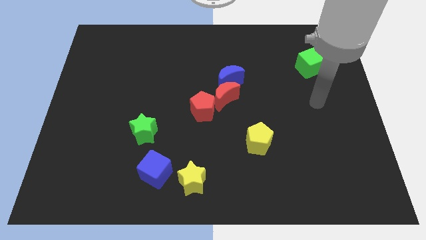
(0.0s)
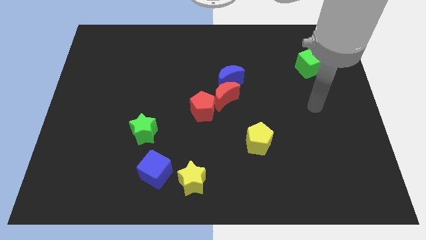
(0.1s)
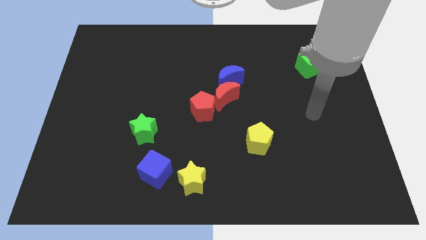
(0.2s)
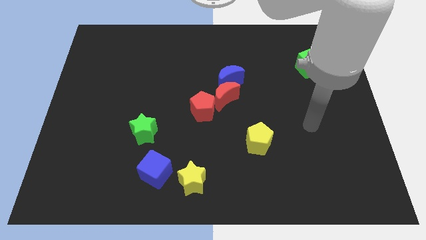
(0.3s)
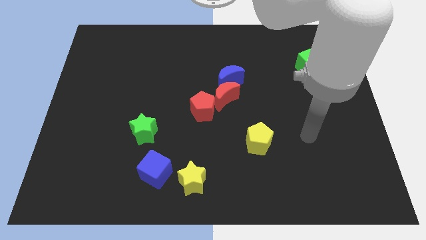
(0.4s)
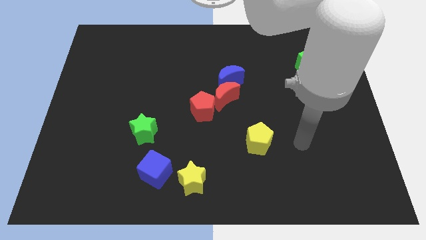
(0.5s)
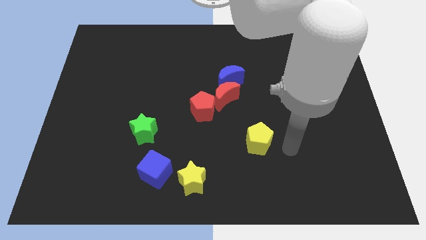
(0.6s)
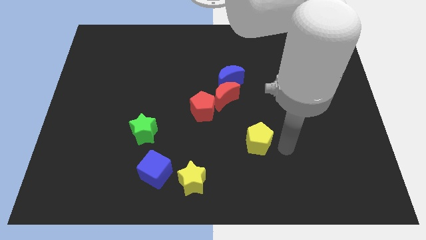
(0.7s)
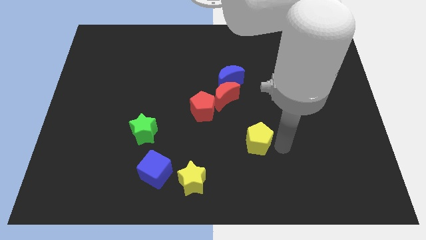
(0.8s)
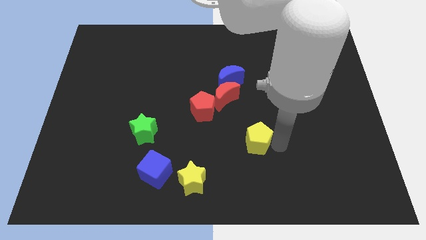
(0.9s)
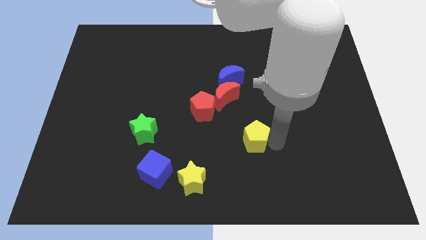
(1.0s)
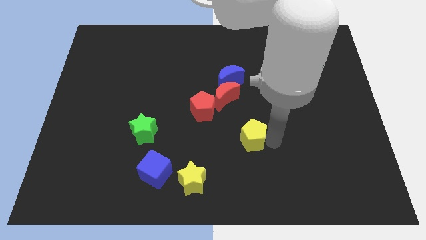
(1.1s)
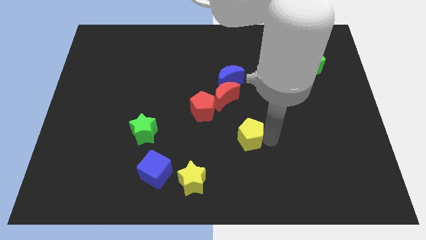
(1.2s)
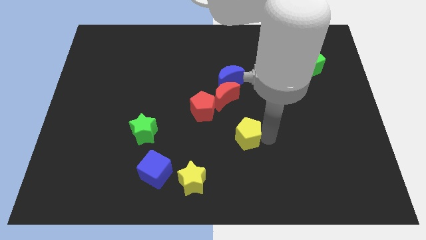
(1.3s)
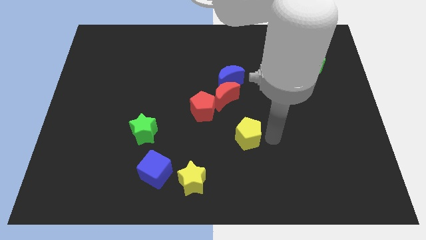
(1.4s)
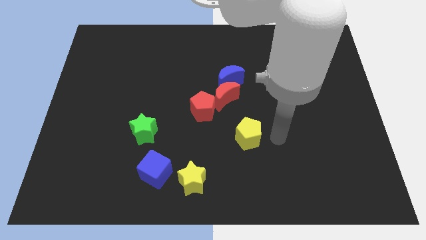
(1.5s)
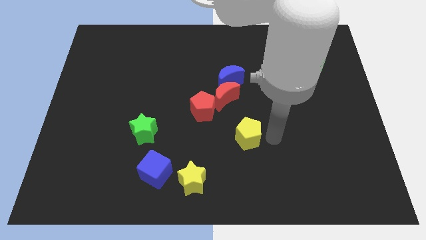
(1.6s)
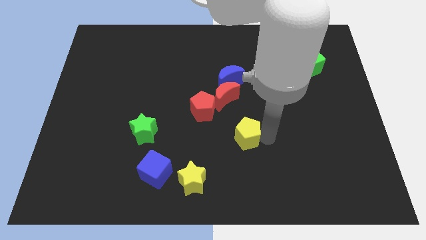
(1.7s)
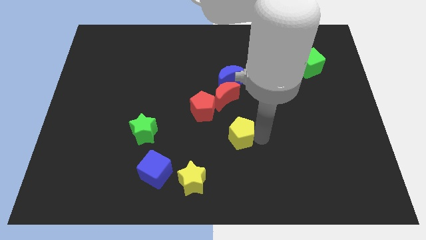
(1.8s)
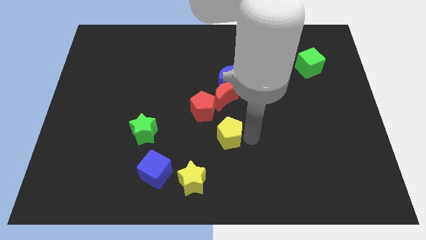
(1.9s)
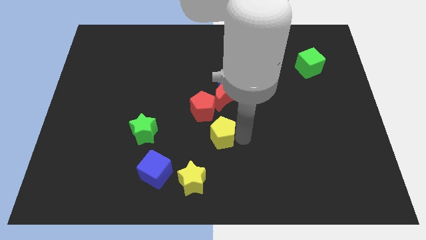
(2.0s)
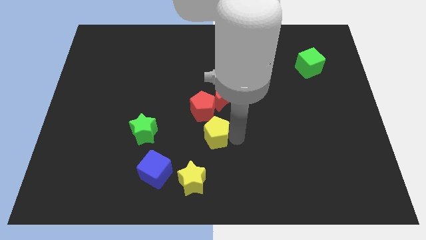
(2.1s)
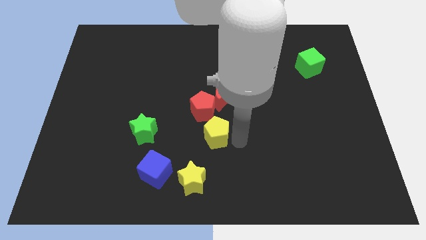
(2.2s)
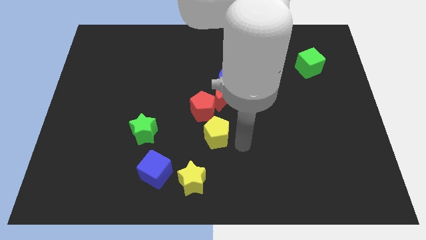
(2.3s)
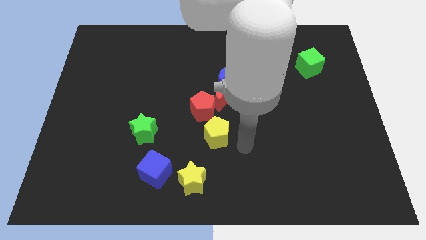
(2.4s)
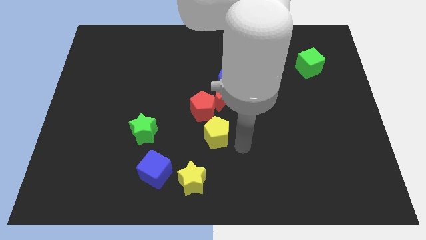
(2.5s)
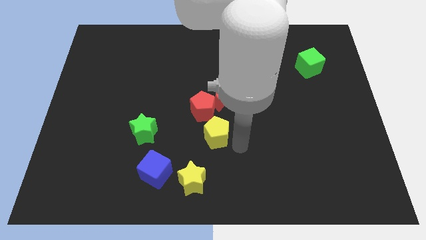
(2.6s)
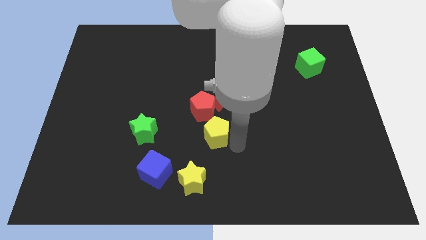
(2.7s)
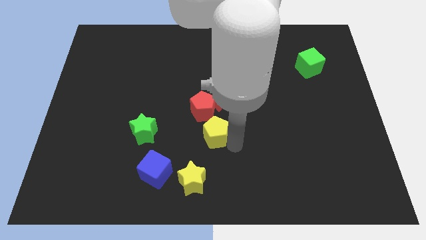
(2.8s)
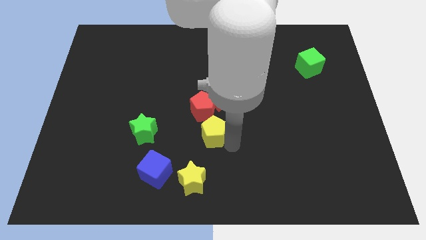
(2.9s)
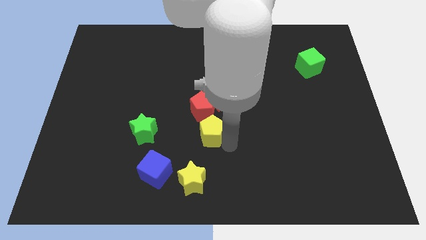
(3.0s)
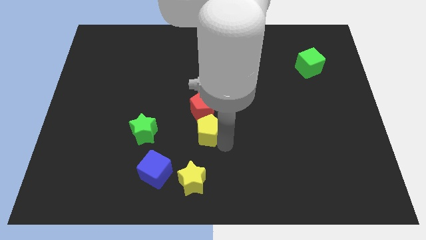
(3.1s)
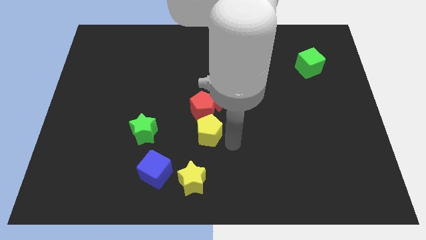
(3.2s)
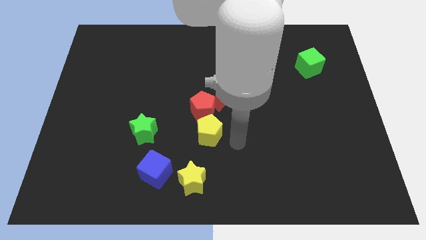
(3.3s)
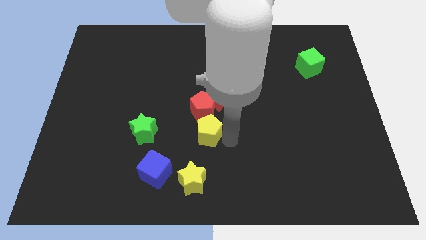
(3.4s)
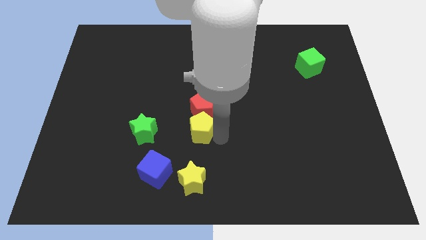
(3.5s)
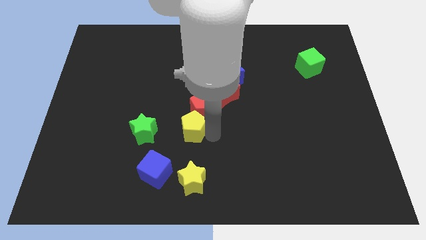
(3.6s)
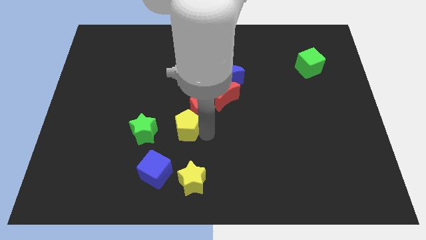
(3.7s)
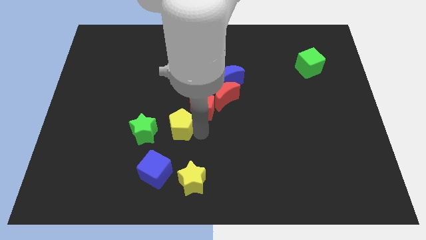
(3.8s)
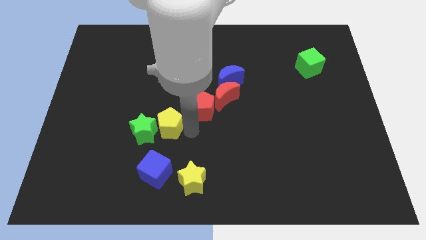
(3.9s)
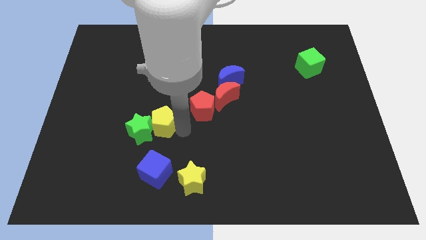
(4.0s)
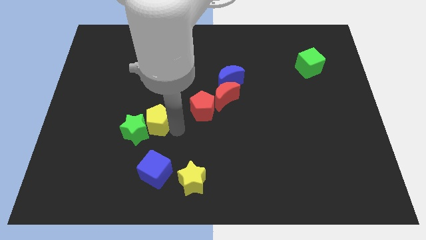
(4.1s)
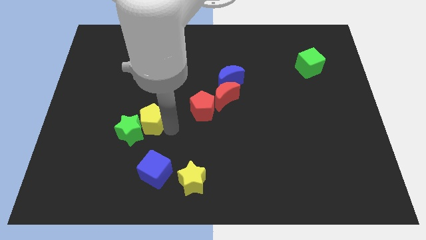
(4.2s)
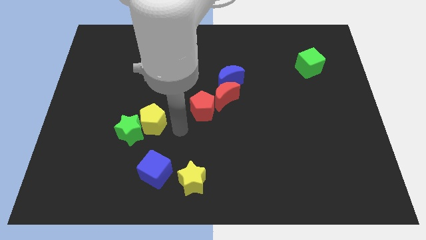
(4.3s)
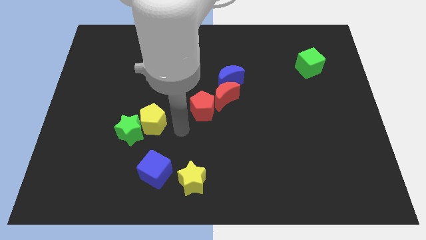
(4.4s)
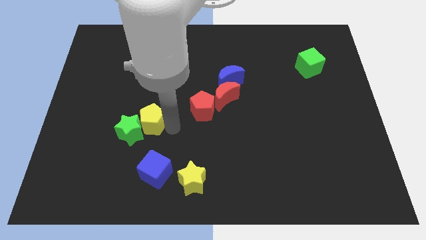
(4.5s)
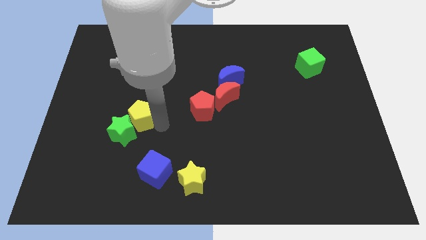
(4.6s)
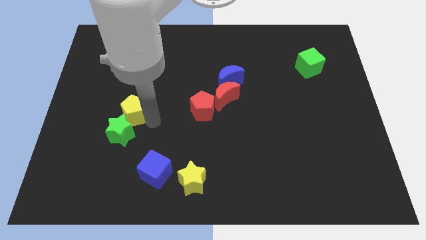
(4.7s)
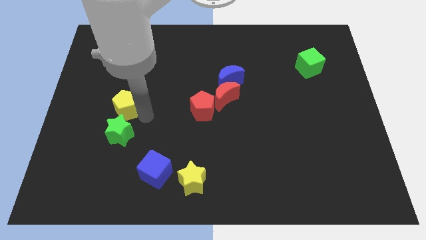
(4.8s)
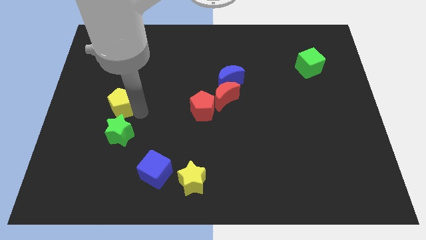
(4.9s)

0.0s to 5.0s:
put the yellow pentagon to the top left side of the green star

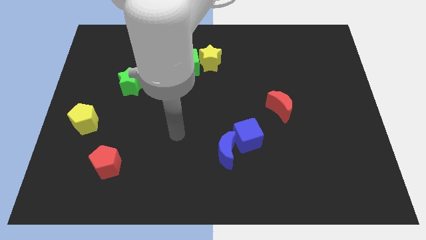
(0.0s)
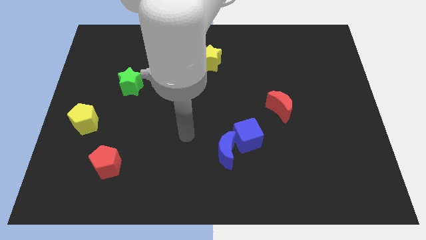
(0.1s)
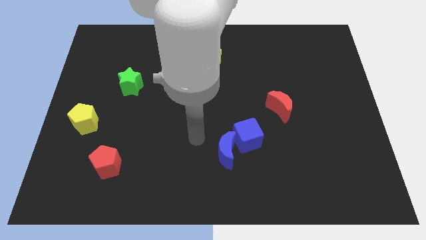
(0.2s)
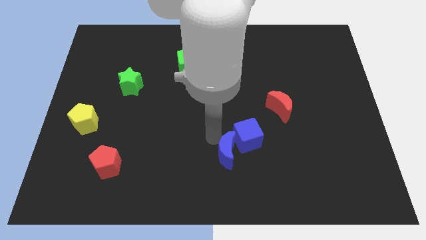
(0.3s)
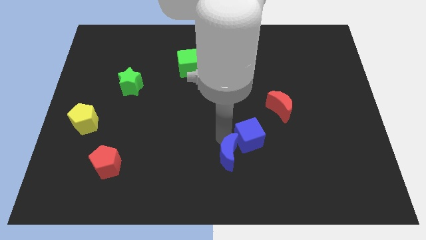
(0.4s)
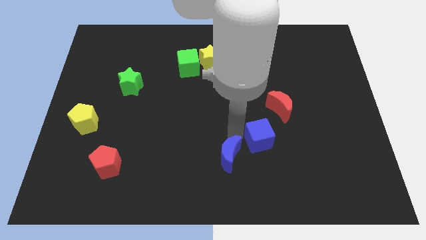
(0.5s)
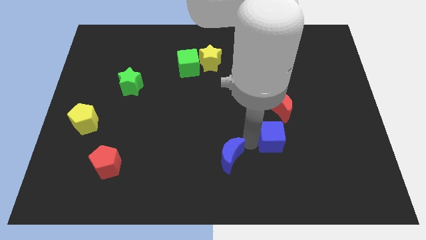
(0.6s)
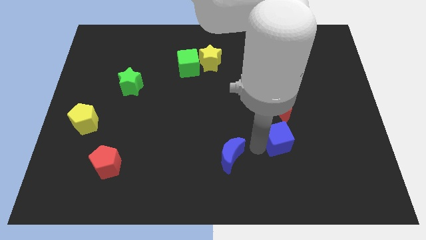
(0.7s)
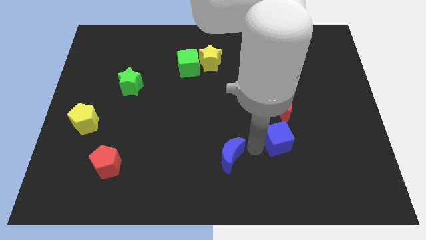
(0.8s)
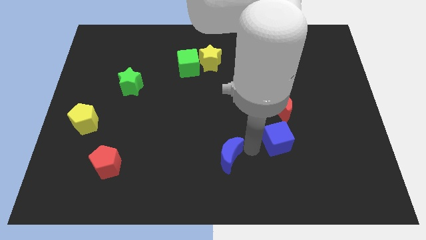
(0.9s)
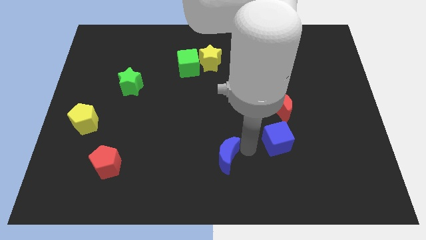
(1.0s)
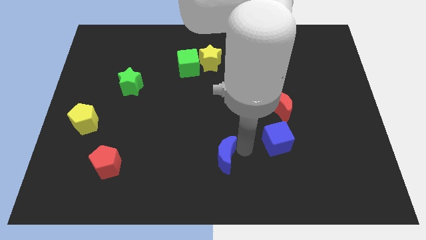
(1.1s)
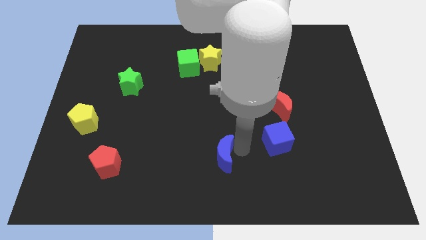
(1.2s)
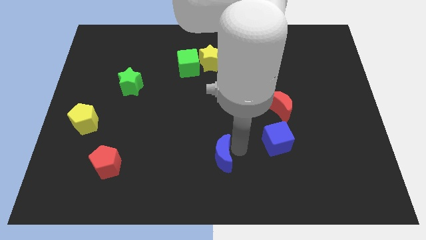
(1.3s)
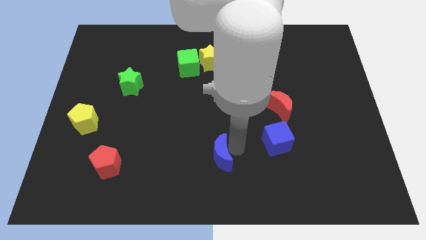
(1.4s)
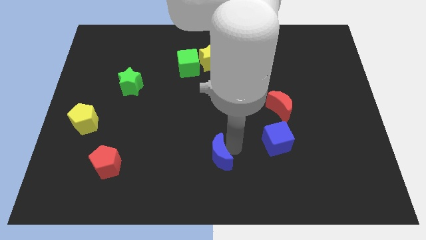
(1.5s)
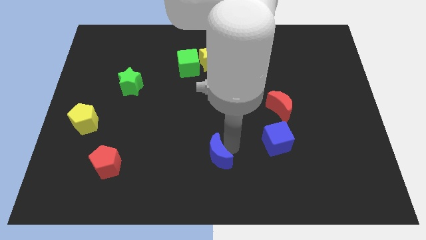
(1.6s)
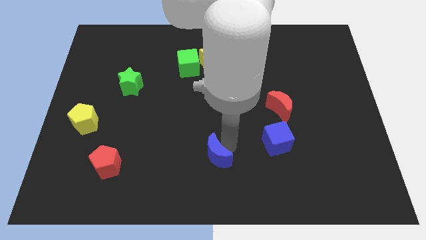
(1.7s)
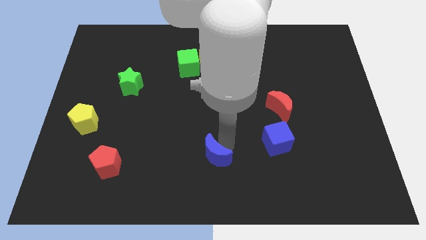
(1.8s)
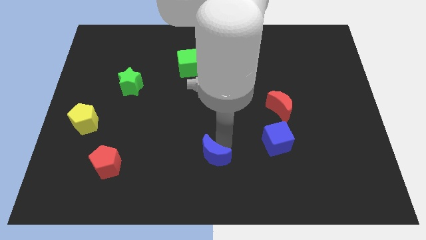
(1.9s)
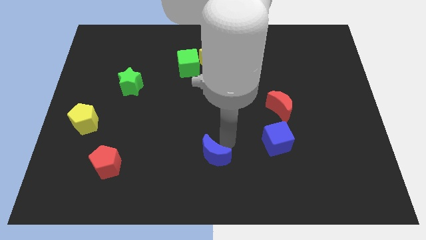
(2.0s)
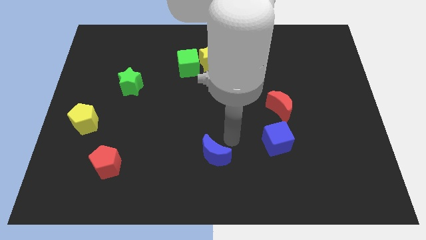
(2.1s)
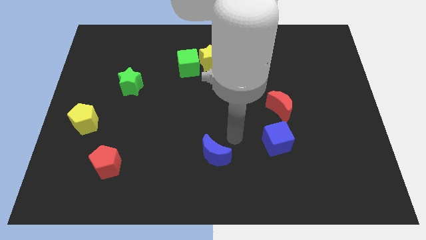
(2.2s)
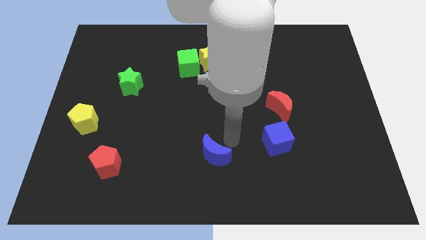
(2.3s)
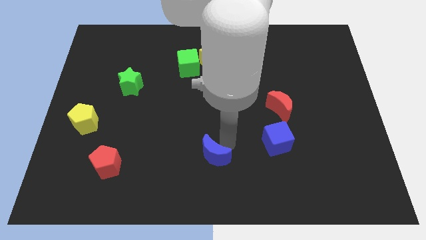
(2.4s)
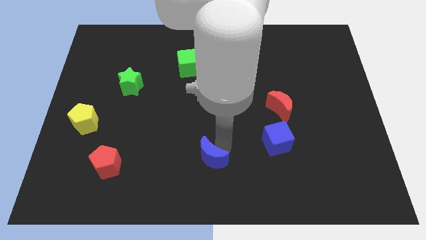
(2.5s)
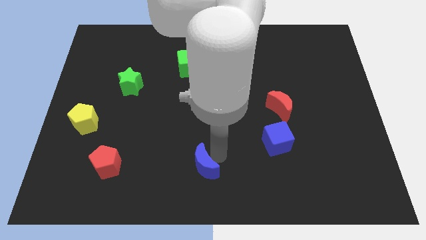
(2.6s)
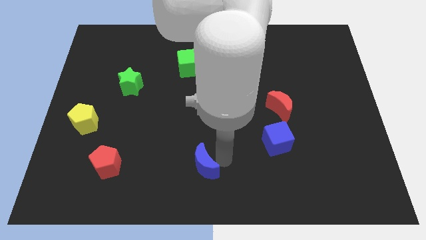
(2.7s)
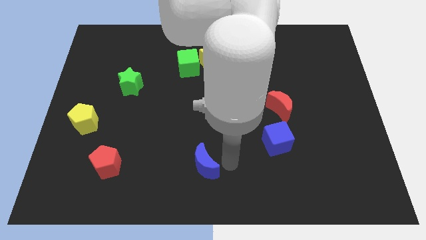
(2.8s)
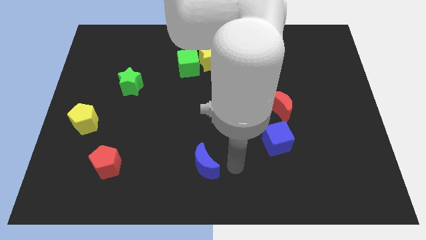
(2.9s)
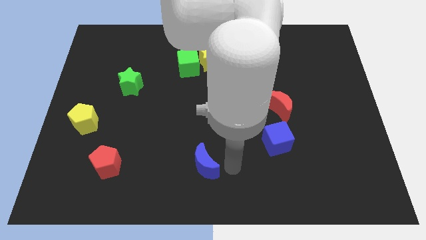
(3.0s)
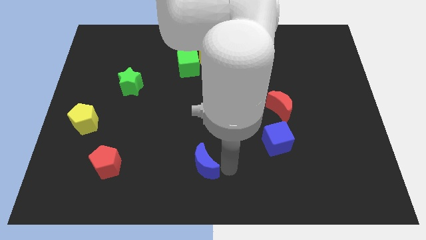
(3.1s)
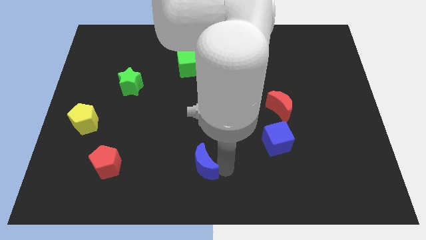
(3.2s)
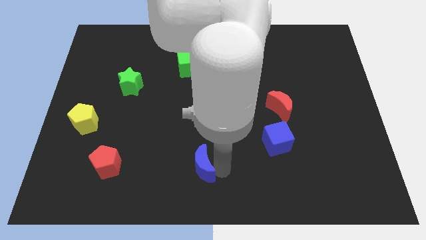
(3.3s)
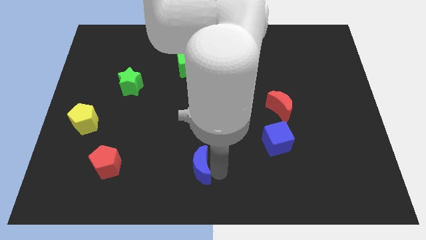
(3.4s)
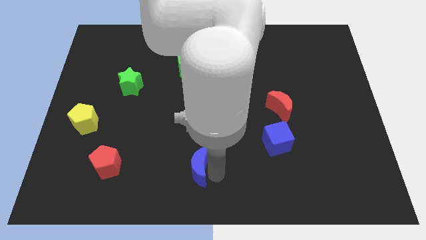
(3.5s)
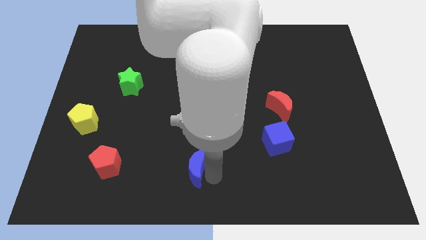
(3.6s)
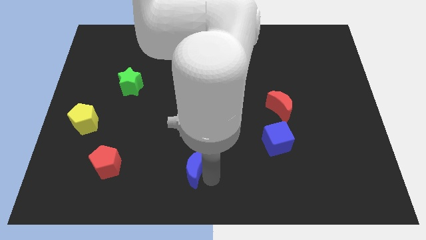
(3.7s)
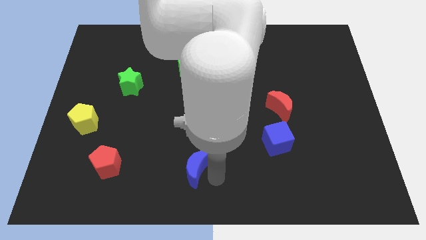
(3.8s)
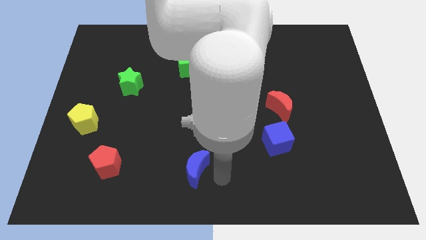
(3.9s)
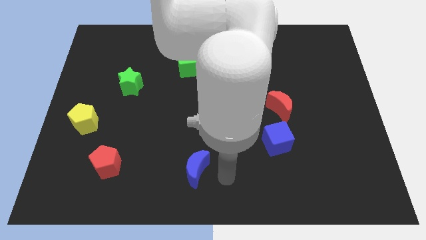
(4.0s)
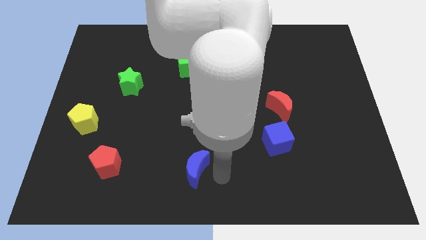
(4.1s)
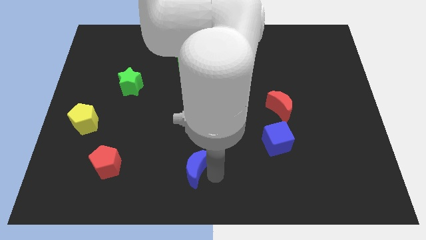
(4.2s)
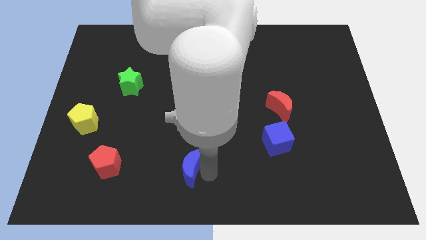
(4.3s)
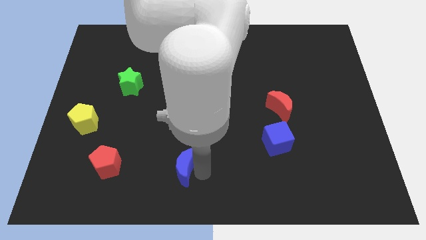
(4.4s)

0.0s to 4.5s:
put the blue moon just right of the red pentagon
